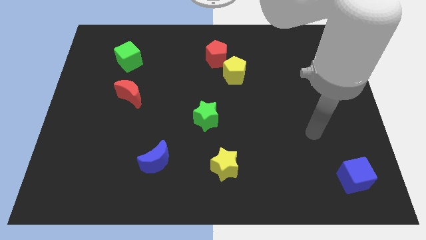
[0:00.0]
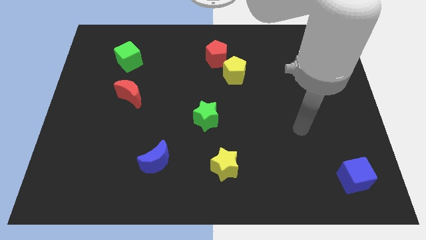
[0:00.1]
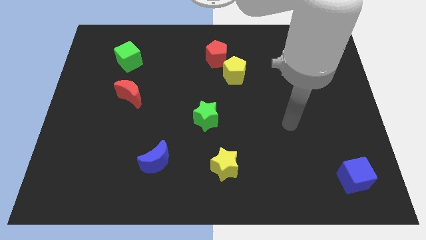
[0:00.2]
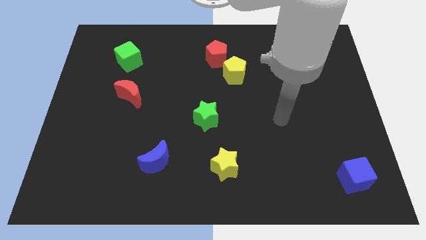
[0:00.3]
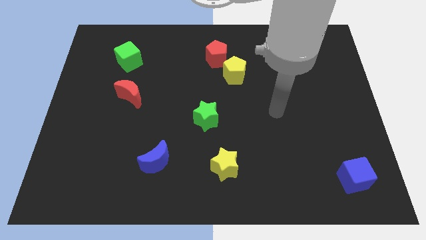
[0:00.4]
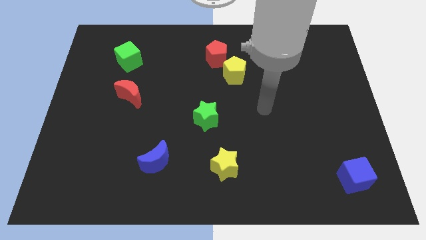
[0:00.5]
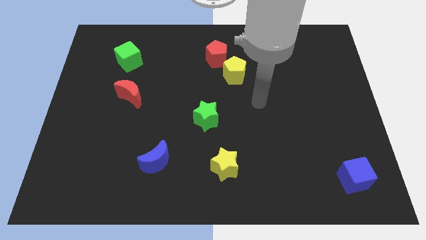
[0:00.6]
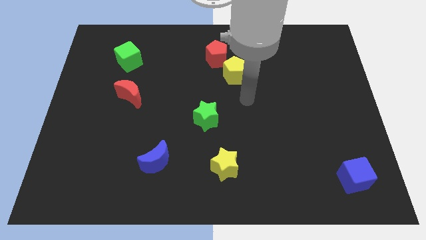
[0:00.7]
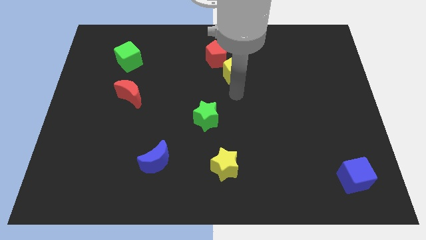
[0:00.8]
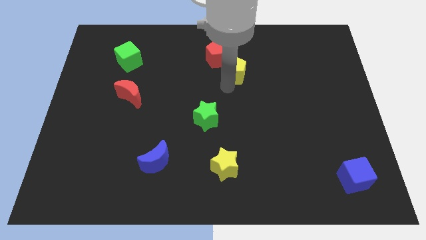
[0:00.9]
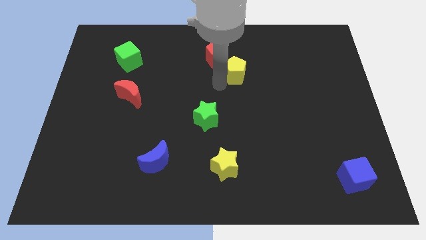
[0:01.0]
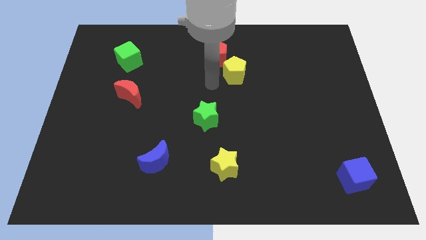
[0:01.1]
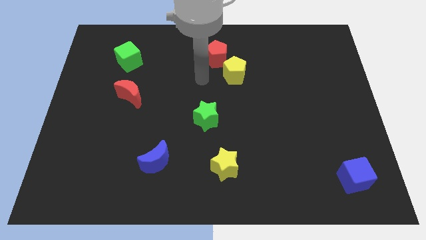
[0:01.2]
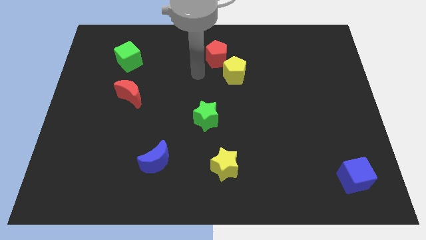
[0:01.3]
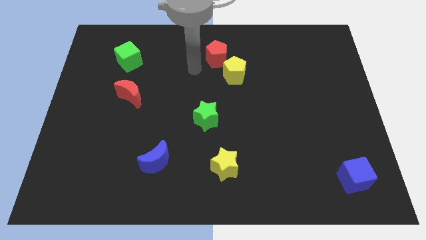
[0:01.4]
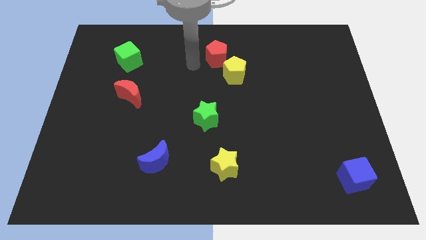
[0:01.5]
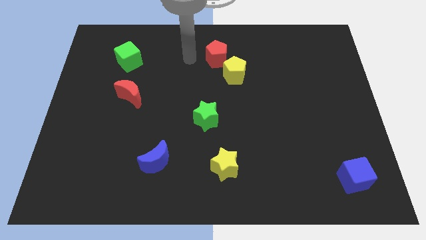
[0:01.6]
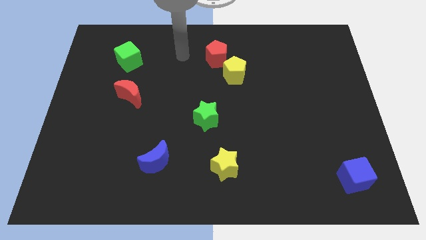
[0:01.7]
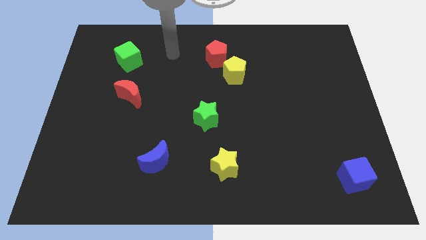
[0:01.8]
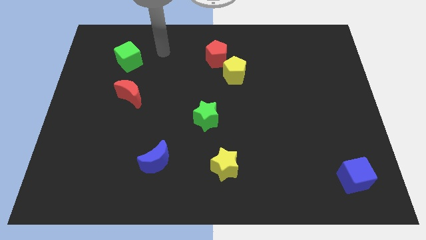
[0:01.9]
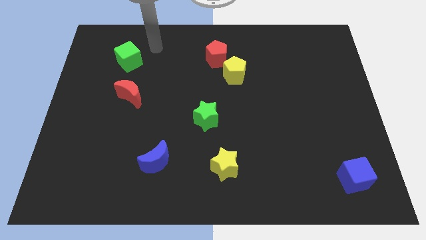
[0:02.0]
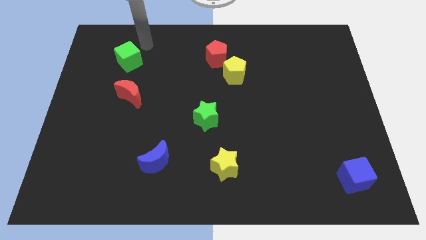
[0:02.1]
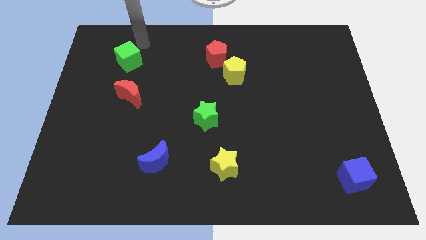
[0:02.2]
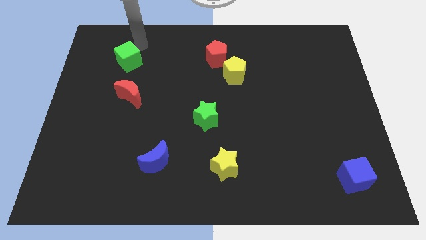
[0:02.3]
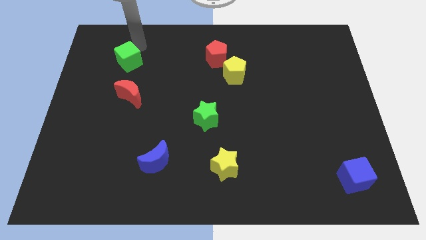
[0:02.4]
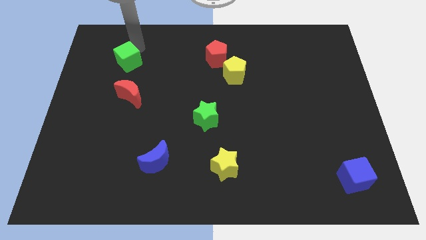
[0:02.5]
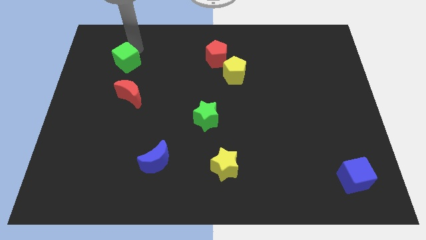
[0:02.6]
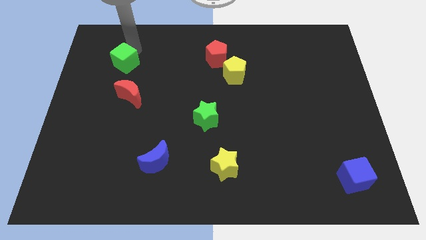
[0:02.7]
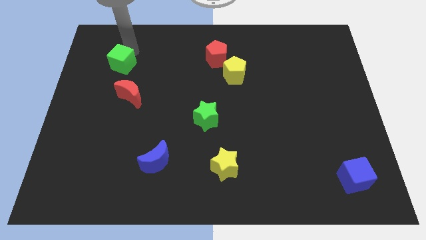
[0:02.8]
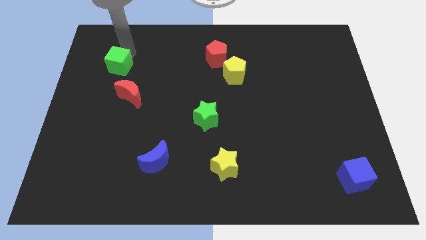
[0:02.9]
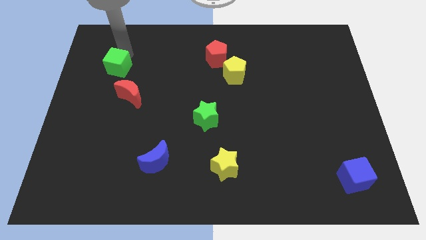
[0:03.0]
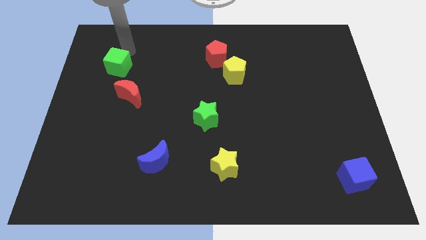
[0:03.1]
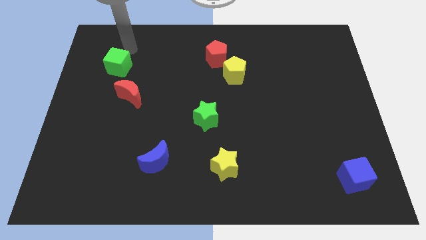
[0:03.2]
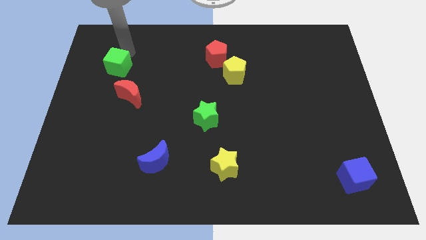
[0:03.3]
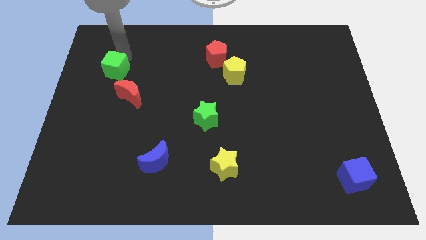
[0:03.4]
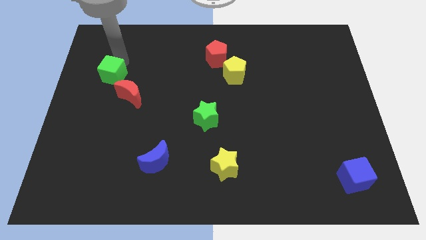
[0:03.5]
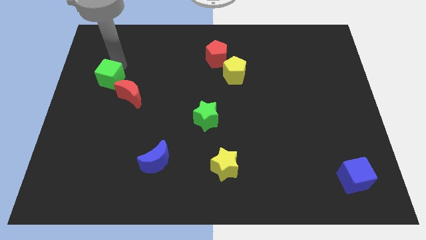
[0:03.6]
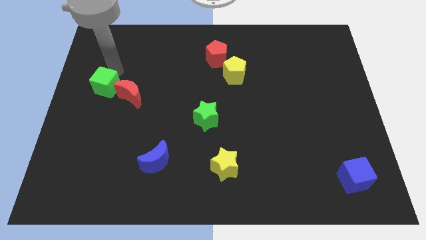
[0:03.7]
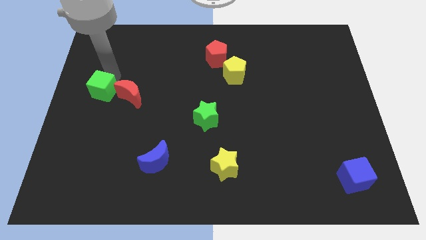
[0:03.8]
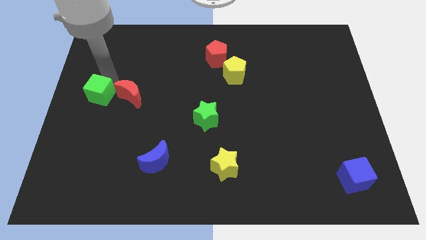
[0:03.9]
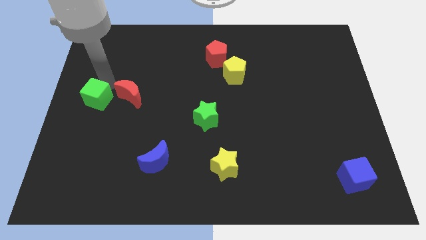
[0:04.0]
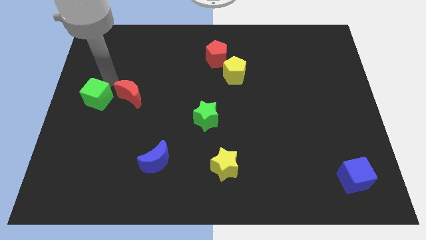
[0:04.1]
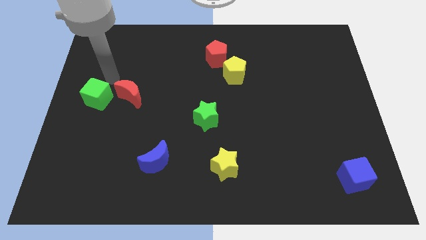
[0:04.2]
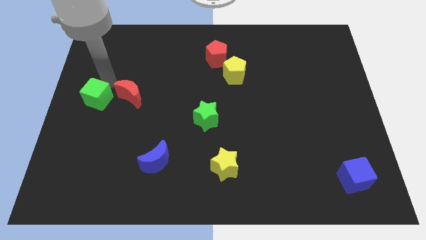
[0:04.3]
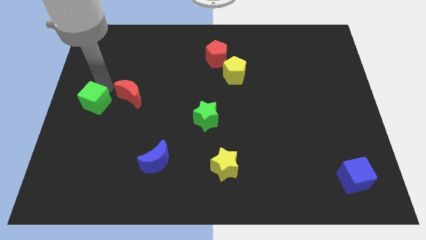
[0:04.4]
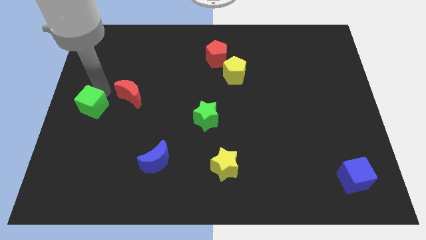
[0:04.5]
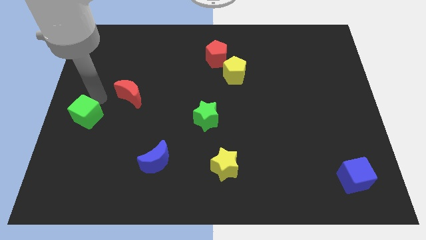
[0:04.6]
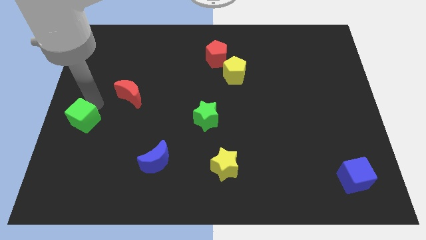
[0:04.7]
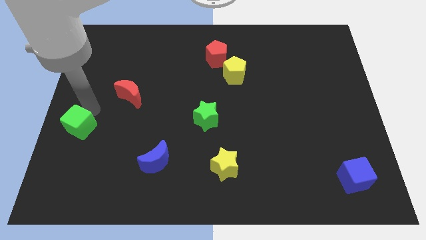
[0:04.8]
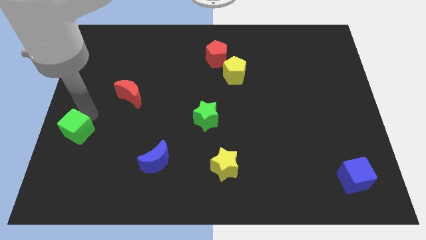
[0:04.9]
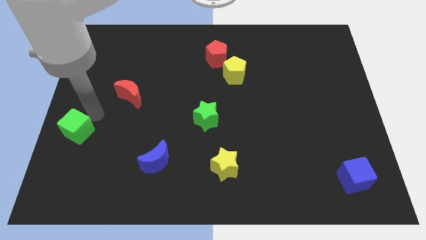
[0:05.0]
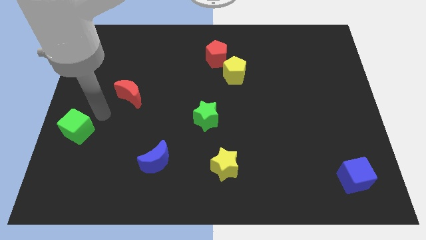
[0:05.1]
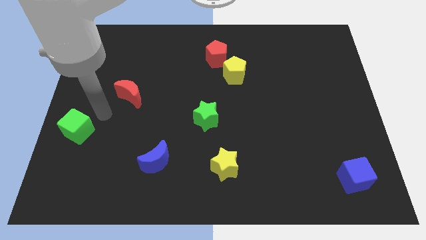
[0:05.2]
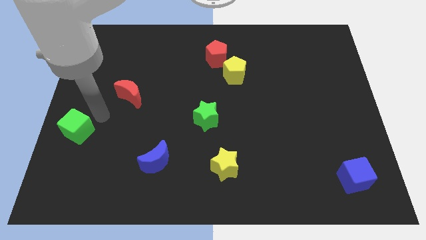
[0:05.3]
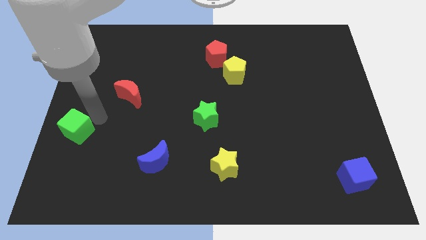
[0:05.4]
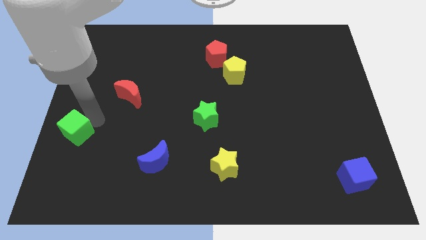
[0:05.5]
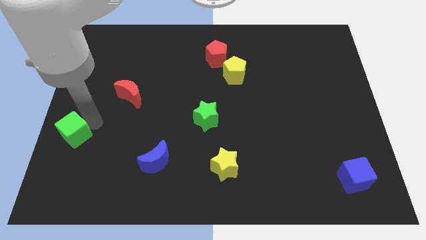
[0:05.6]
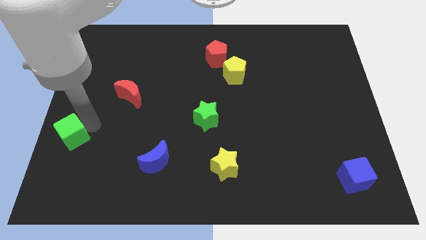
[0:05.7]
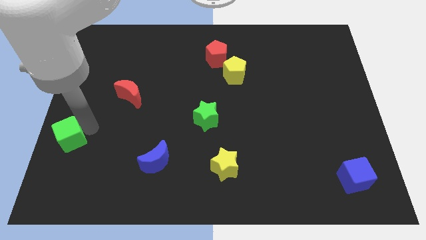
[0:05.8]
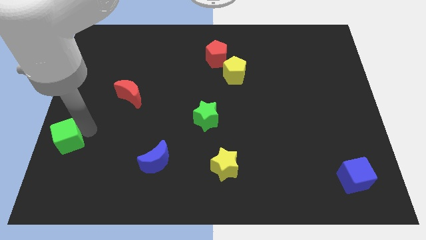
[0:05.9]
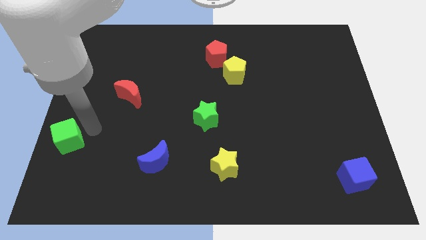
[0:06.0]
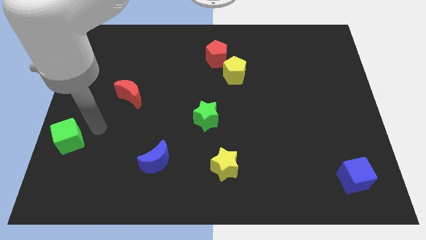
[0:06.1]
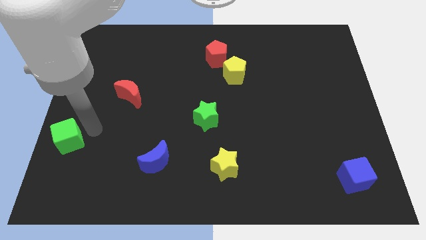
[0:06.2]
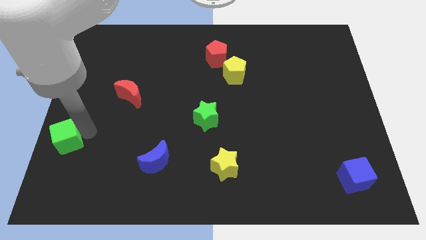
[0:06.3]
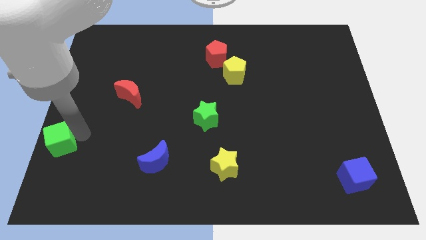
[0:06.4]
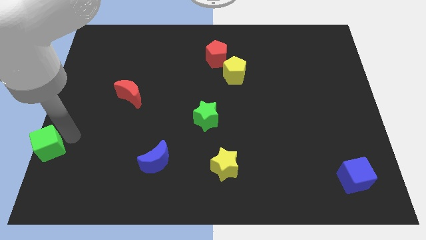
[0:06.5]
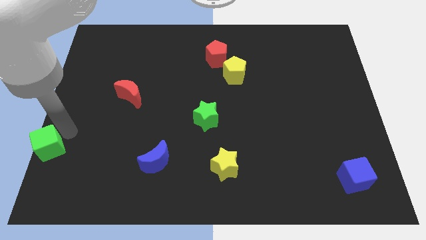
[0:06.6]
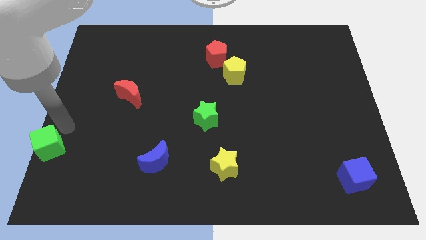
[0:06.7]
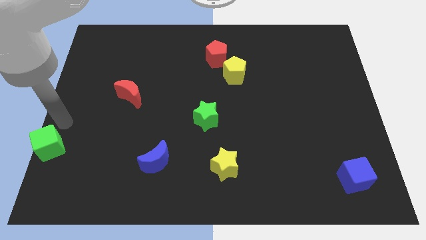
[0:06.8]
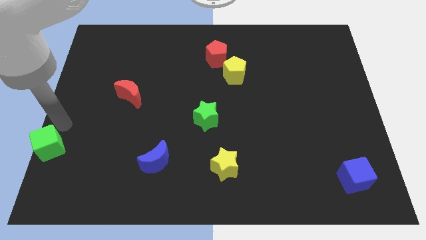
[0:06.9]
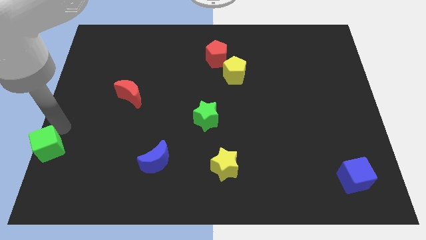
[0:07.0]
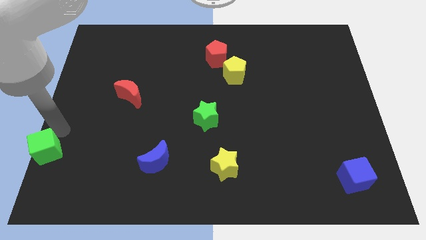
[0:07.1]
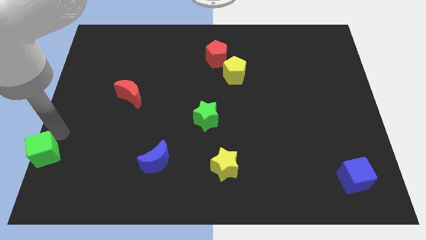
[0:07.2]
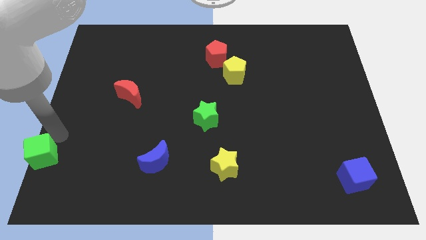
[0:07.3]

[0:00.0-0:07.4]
move the green cube to the bottom left of the board
